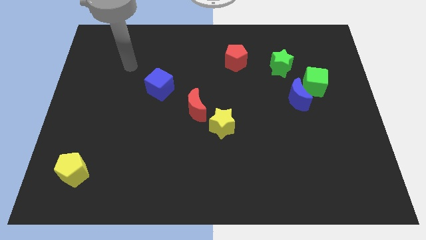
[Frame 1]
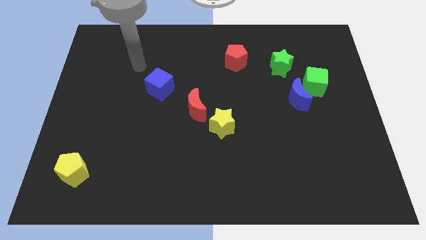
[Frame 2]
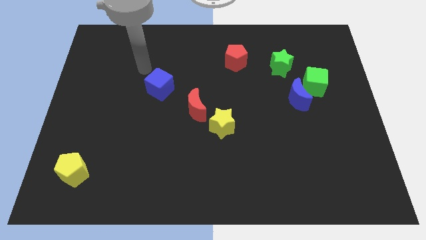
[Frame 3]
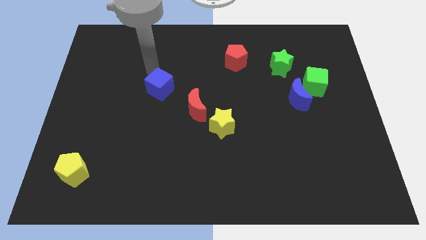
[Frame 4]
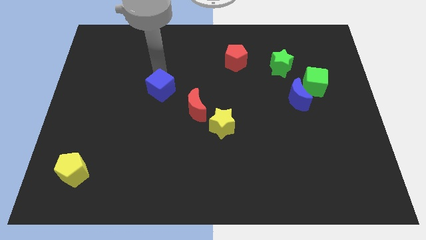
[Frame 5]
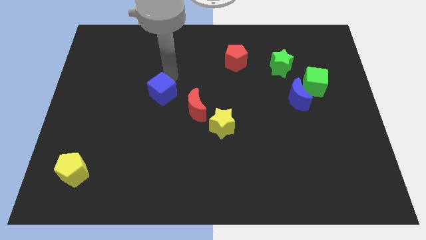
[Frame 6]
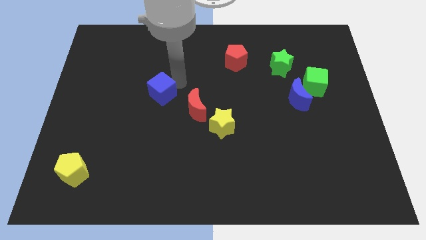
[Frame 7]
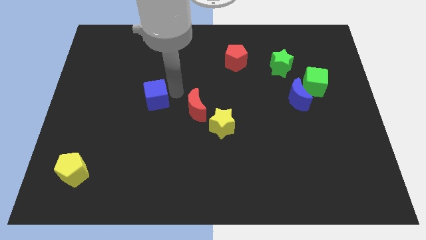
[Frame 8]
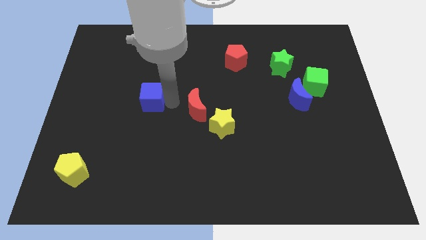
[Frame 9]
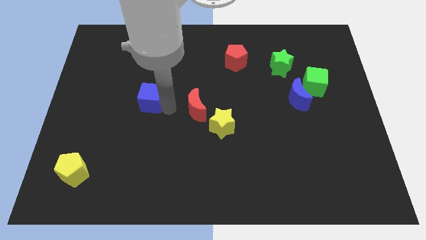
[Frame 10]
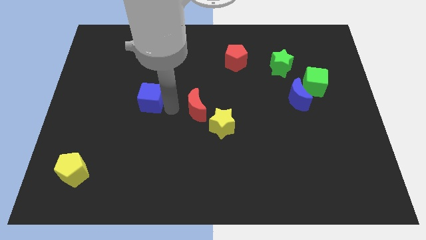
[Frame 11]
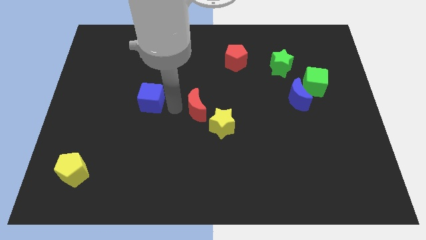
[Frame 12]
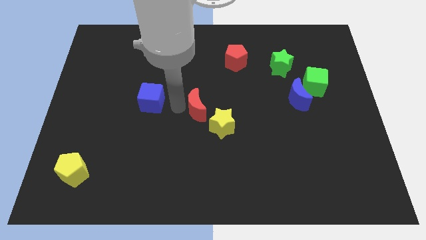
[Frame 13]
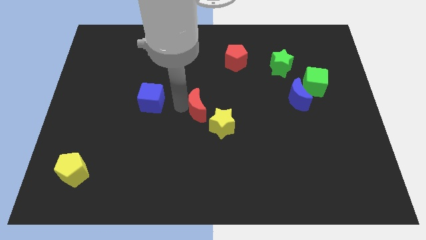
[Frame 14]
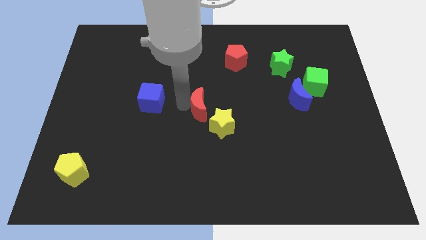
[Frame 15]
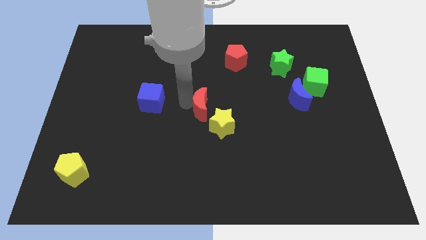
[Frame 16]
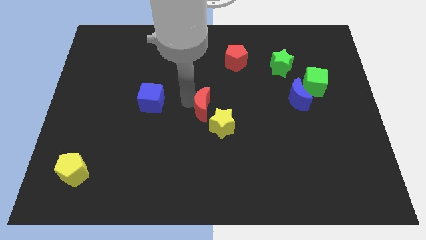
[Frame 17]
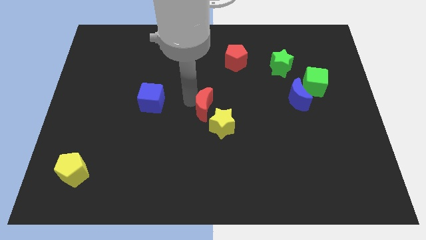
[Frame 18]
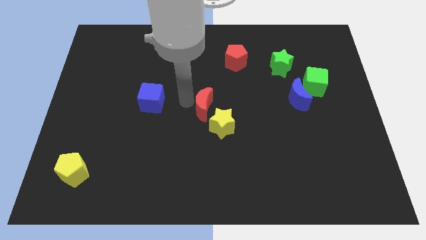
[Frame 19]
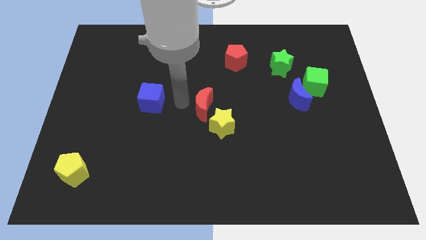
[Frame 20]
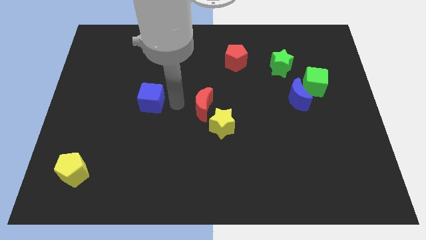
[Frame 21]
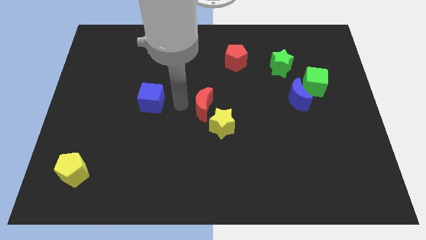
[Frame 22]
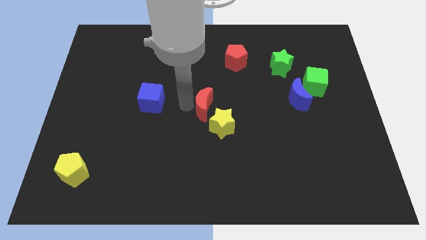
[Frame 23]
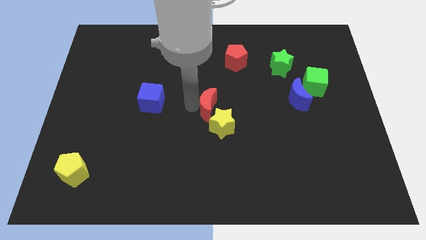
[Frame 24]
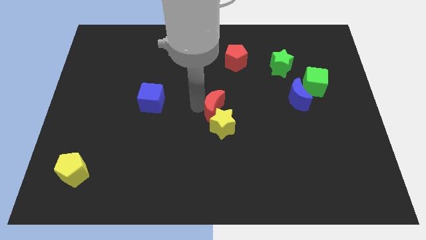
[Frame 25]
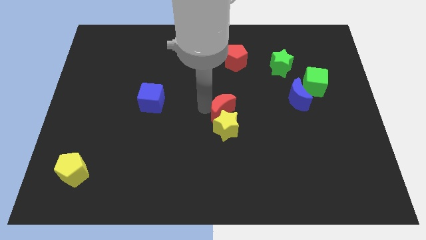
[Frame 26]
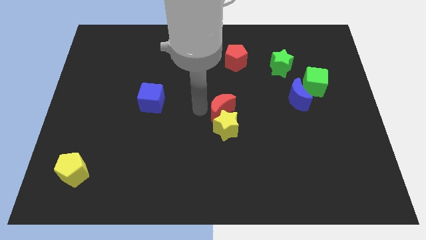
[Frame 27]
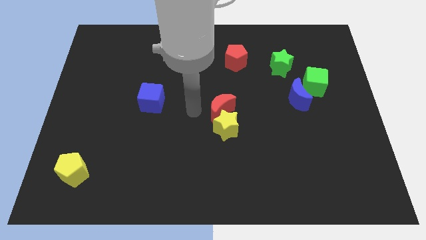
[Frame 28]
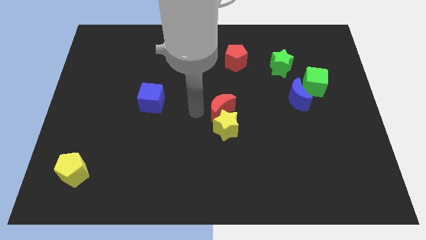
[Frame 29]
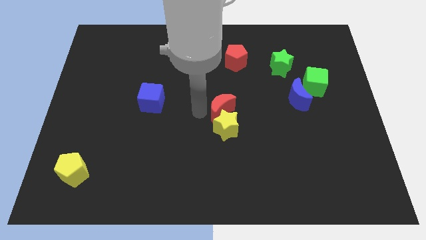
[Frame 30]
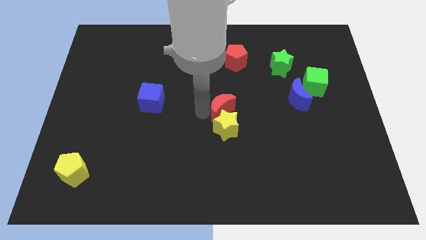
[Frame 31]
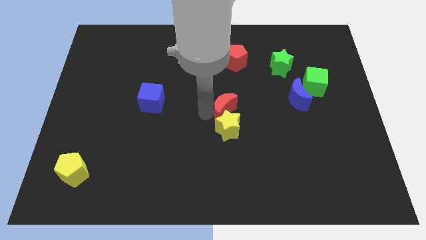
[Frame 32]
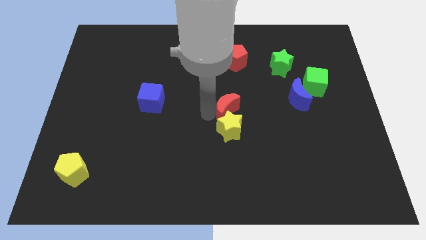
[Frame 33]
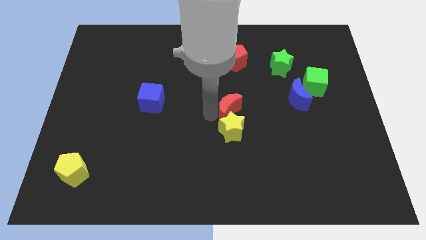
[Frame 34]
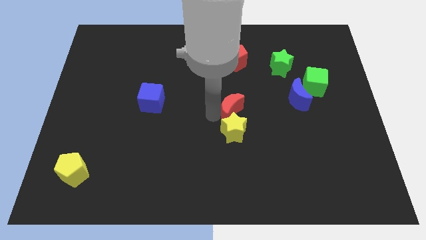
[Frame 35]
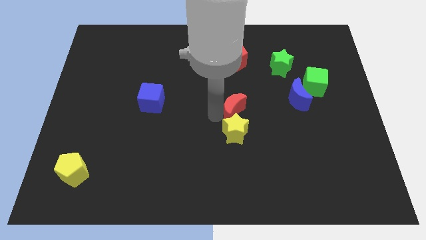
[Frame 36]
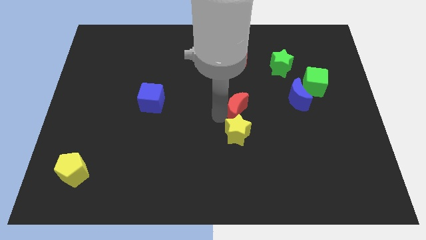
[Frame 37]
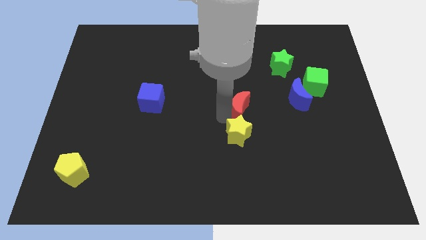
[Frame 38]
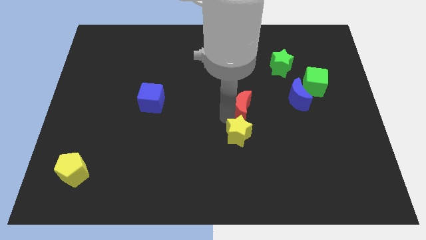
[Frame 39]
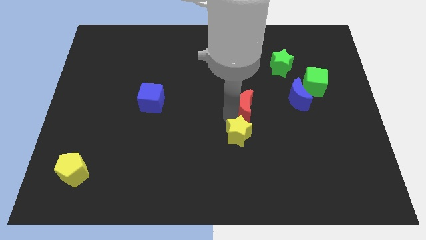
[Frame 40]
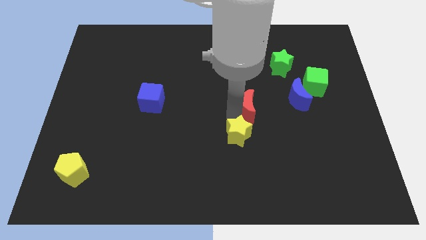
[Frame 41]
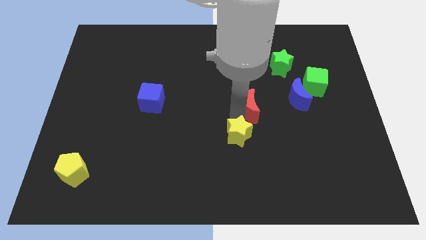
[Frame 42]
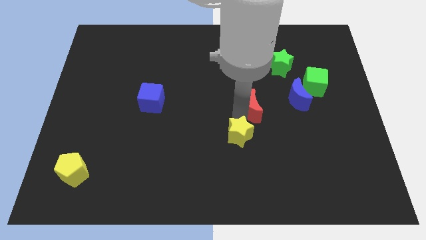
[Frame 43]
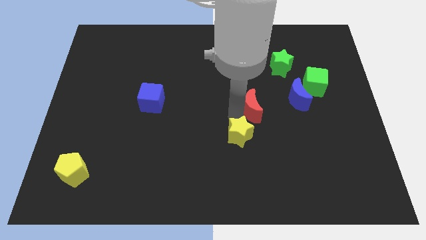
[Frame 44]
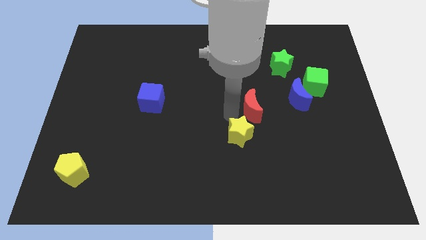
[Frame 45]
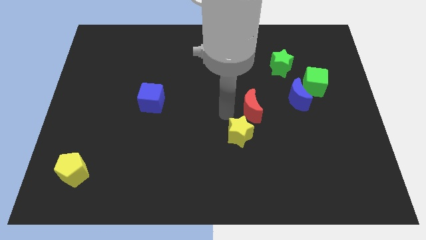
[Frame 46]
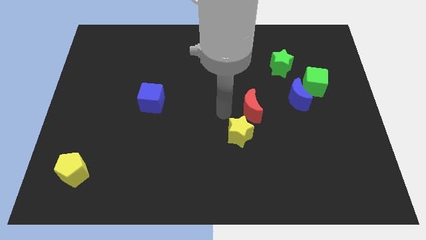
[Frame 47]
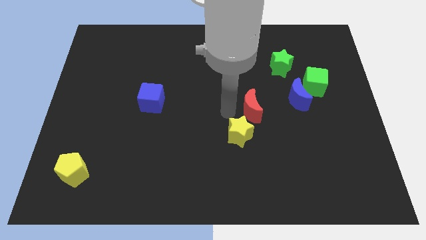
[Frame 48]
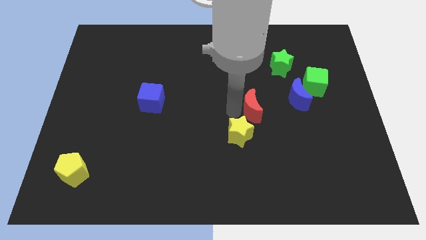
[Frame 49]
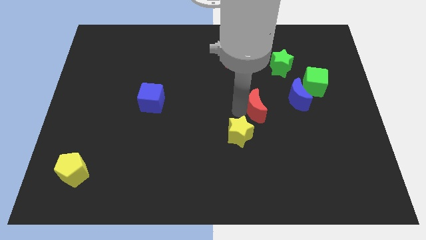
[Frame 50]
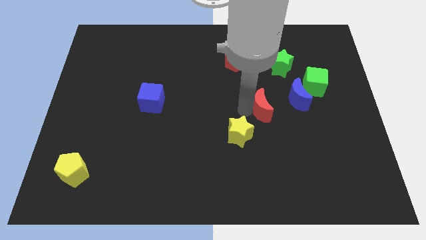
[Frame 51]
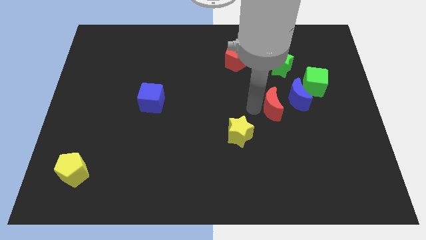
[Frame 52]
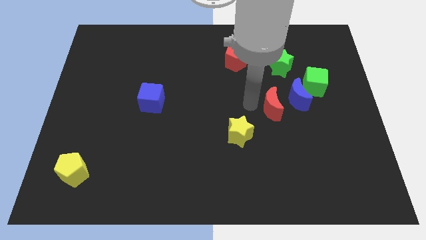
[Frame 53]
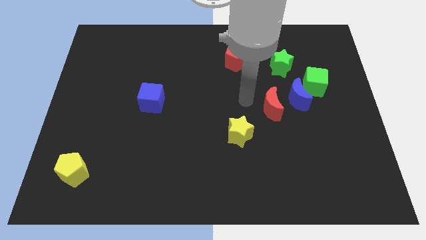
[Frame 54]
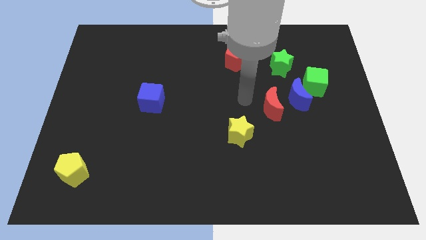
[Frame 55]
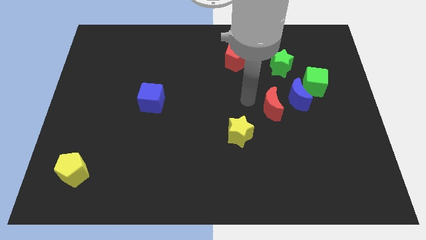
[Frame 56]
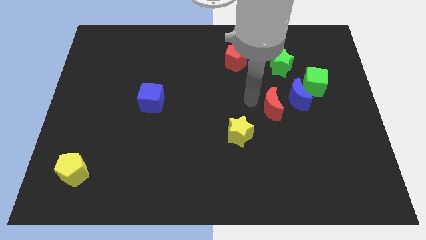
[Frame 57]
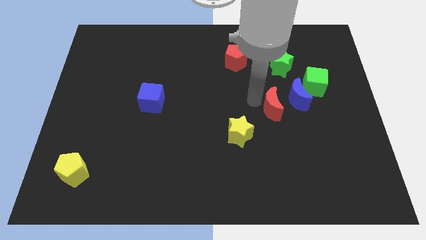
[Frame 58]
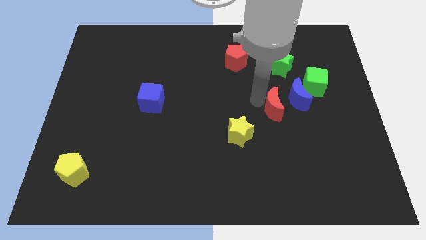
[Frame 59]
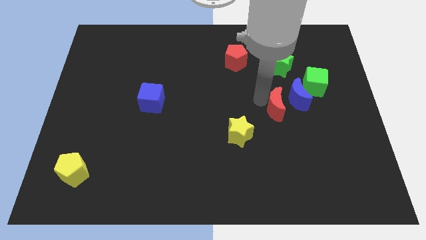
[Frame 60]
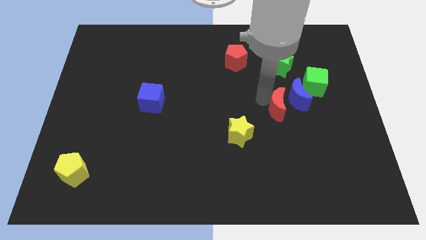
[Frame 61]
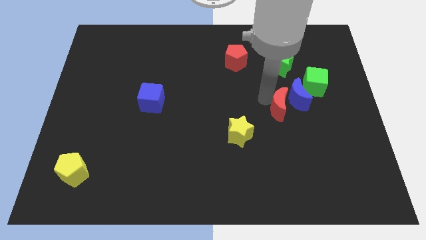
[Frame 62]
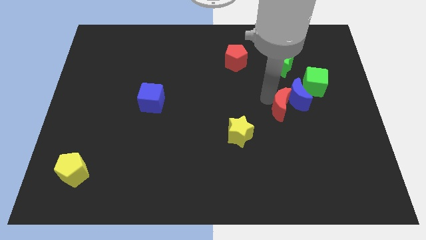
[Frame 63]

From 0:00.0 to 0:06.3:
push the red moon right

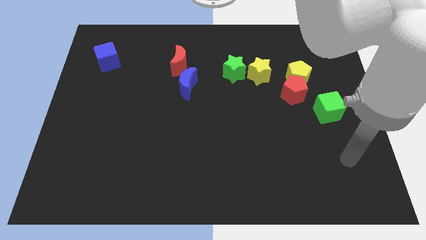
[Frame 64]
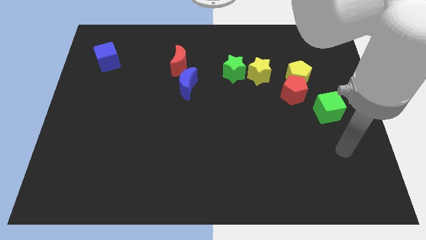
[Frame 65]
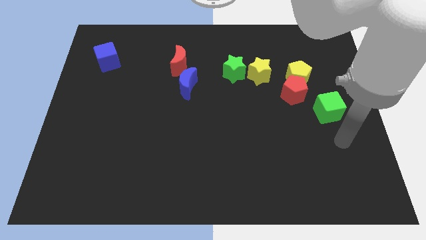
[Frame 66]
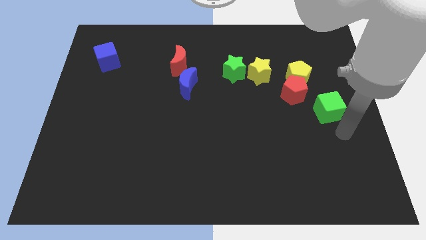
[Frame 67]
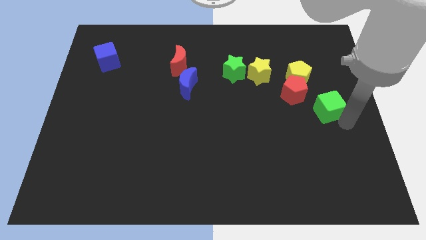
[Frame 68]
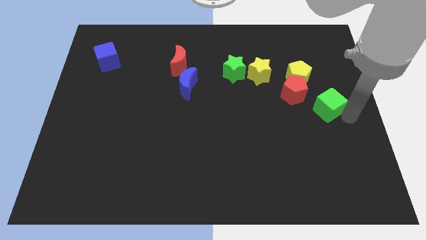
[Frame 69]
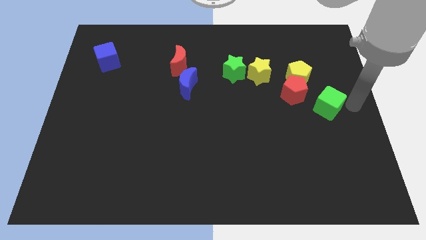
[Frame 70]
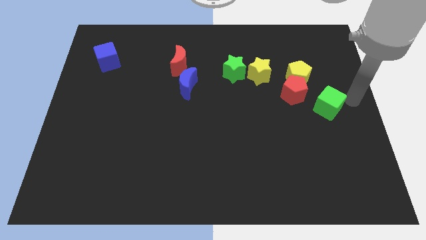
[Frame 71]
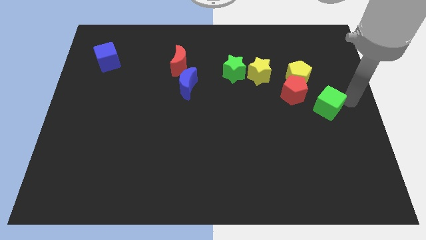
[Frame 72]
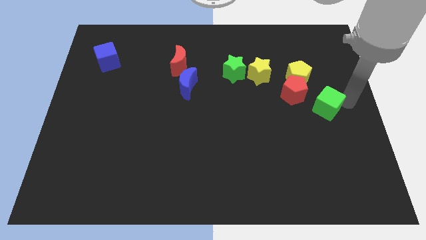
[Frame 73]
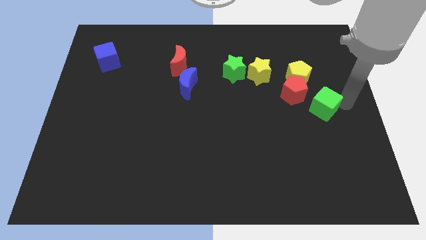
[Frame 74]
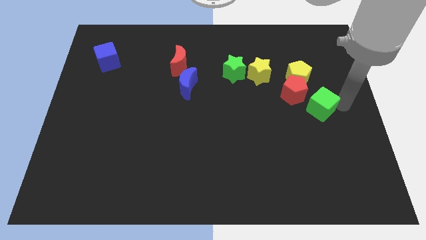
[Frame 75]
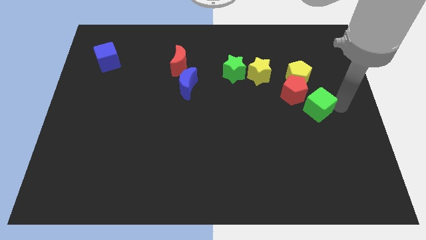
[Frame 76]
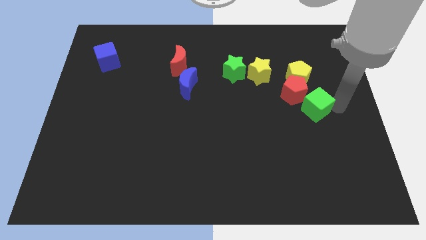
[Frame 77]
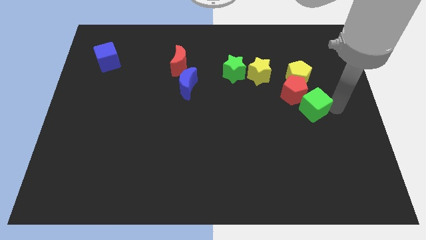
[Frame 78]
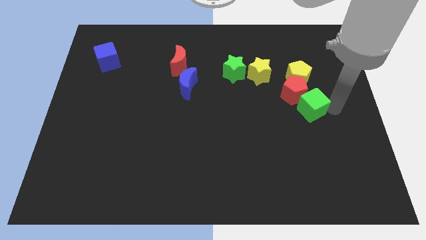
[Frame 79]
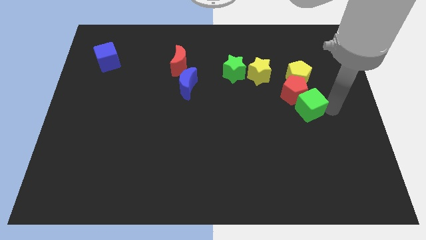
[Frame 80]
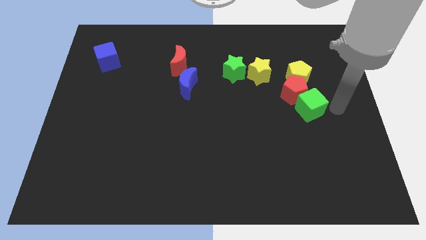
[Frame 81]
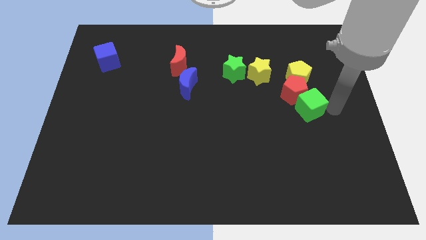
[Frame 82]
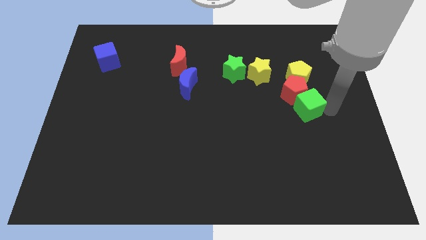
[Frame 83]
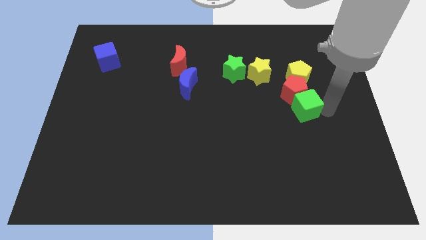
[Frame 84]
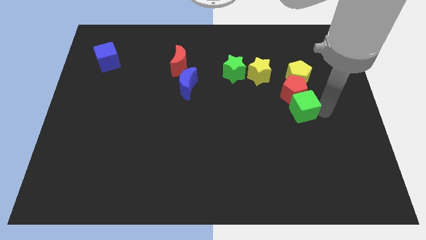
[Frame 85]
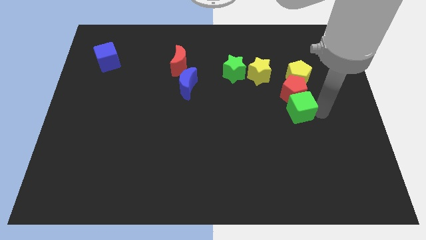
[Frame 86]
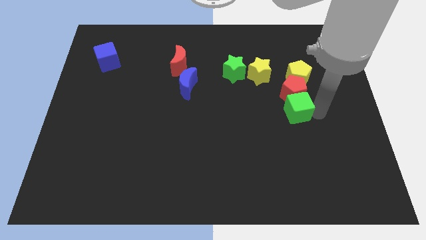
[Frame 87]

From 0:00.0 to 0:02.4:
move the green cube left a little
